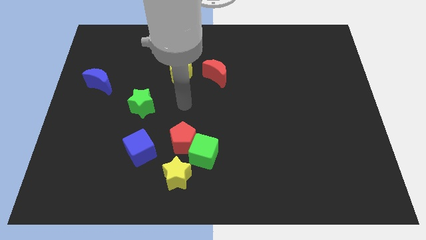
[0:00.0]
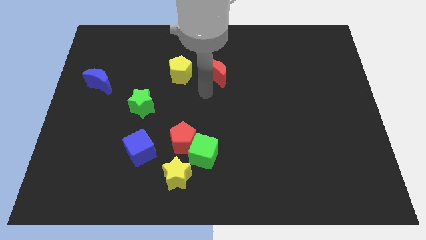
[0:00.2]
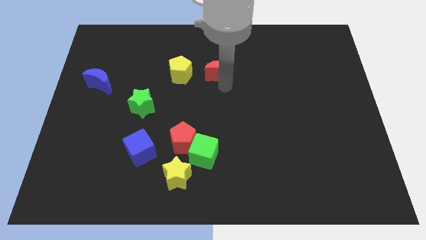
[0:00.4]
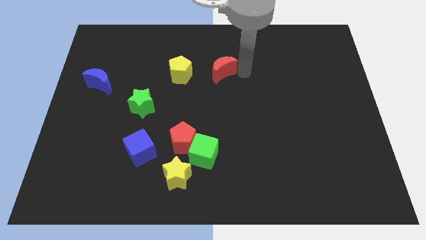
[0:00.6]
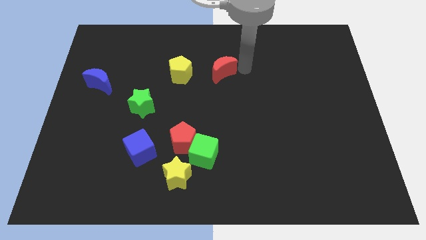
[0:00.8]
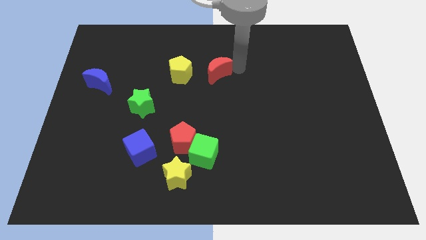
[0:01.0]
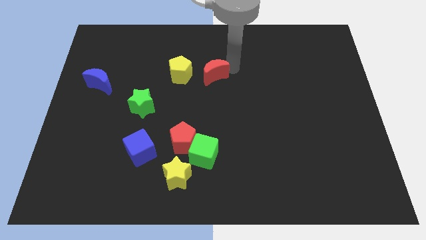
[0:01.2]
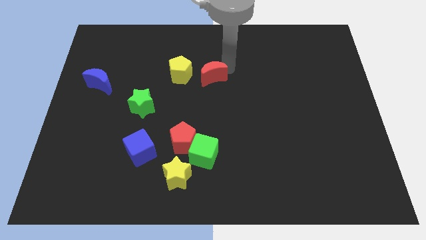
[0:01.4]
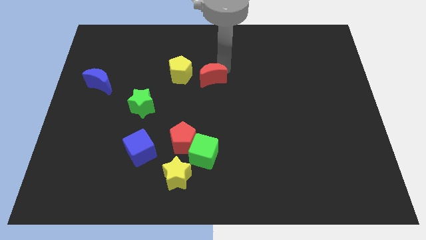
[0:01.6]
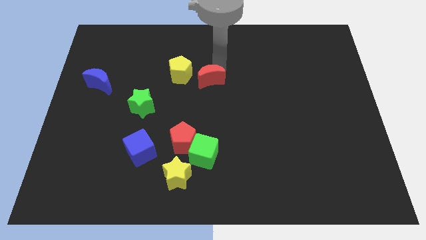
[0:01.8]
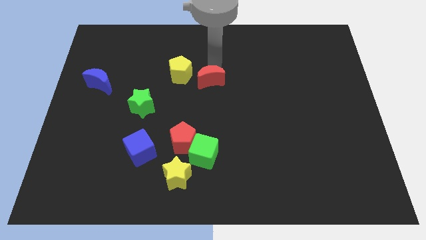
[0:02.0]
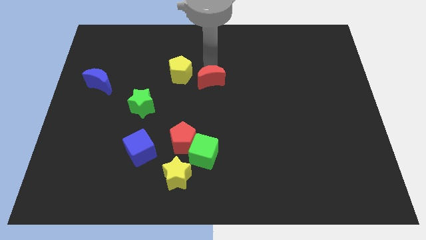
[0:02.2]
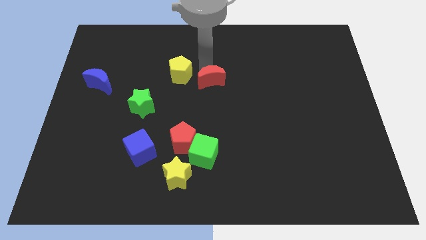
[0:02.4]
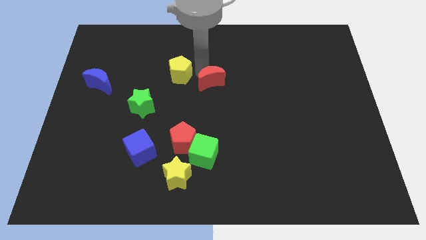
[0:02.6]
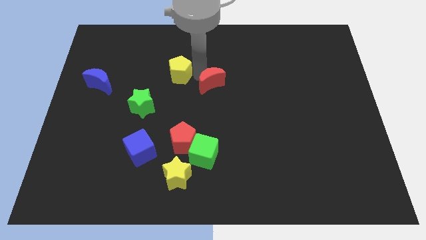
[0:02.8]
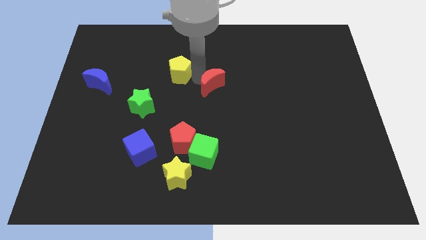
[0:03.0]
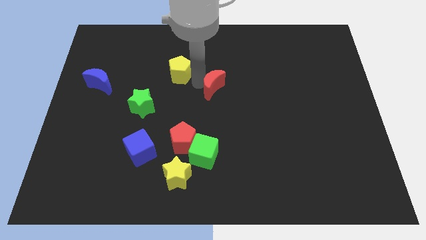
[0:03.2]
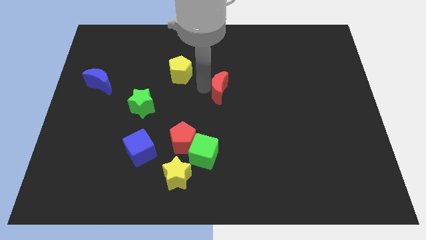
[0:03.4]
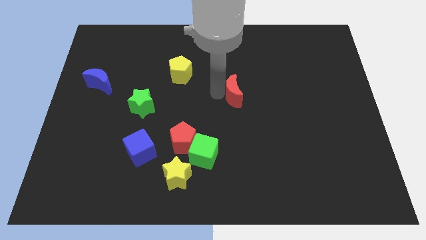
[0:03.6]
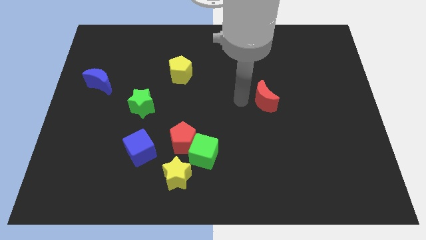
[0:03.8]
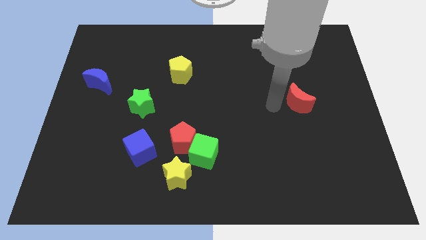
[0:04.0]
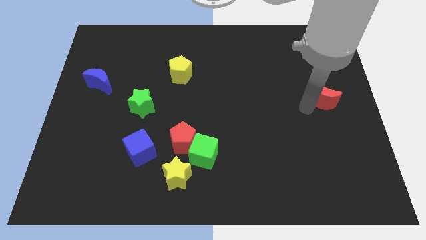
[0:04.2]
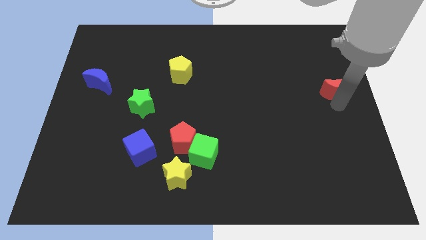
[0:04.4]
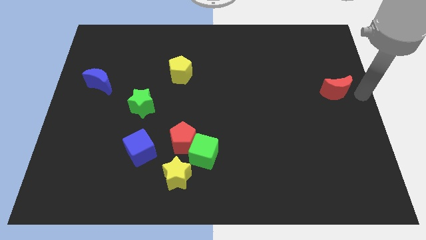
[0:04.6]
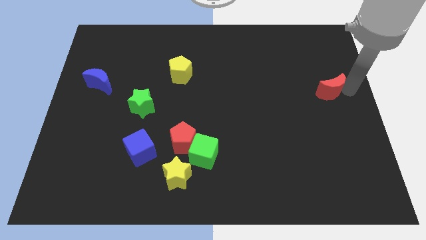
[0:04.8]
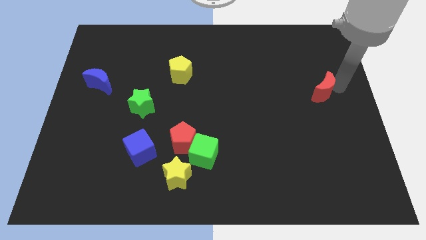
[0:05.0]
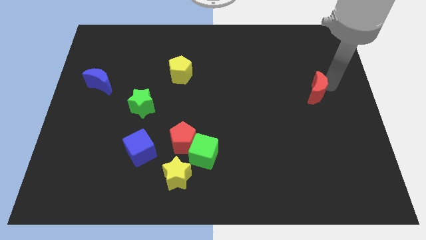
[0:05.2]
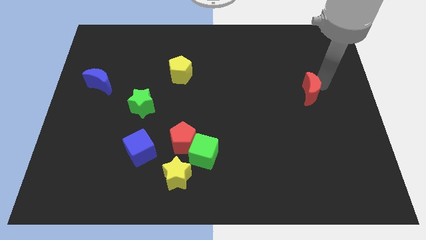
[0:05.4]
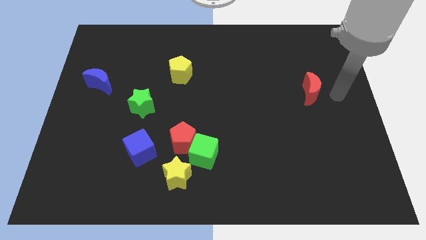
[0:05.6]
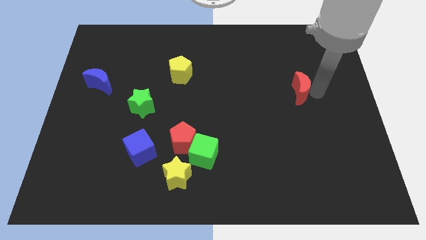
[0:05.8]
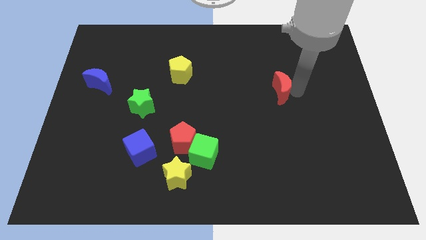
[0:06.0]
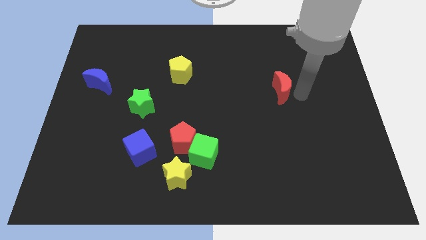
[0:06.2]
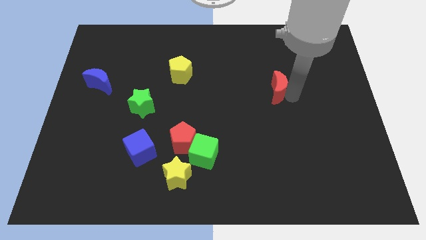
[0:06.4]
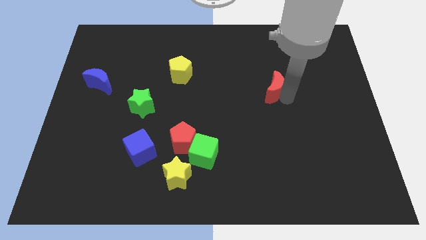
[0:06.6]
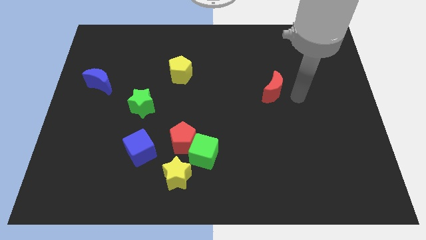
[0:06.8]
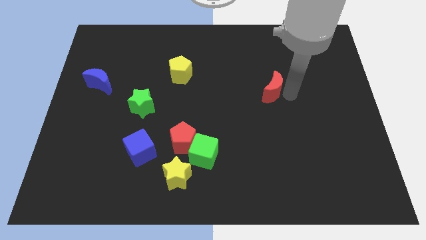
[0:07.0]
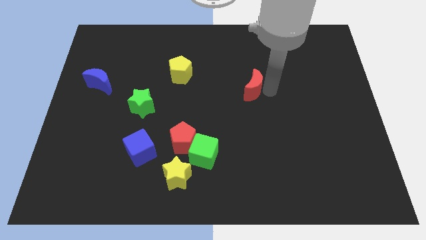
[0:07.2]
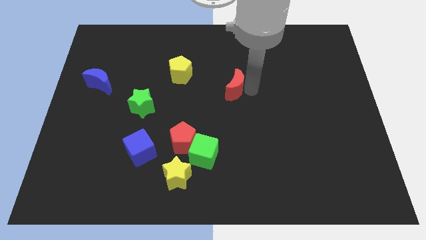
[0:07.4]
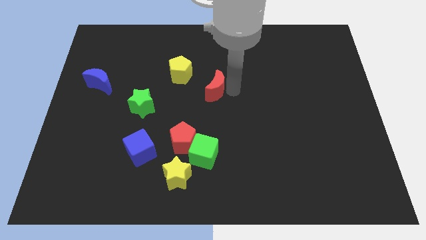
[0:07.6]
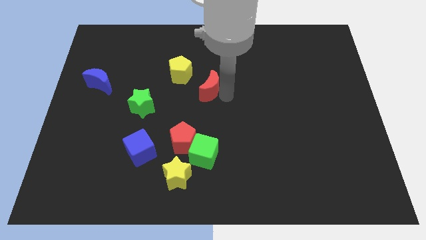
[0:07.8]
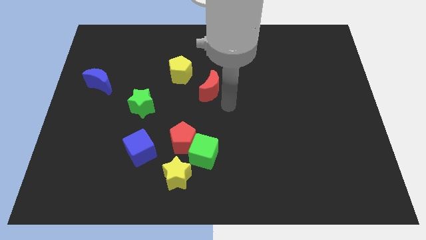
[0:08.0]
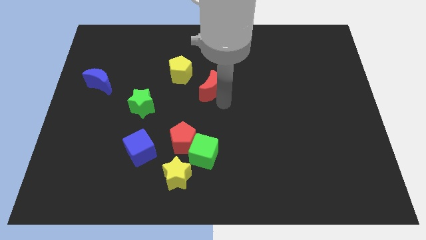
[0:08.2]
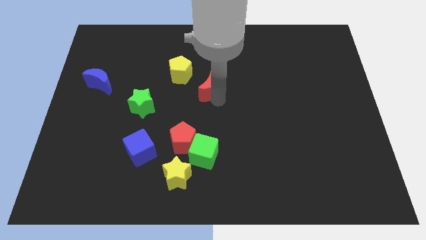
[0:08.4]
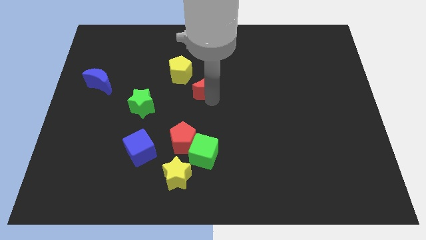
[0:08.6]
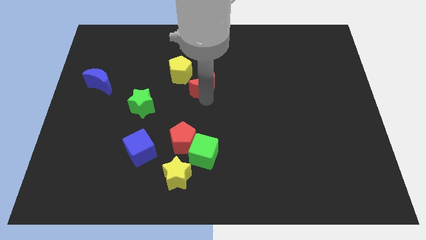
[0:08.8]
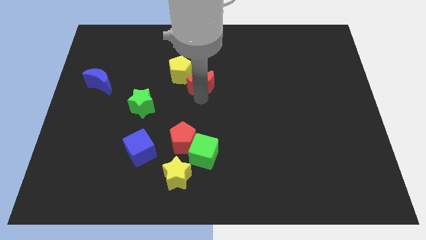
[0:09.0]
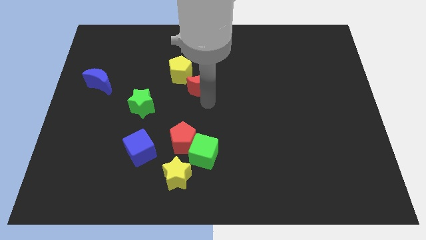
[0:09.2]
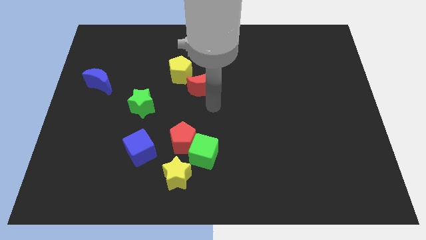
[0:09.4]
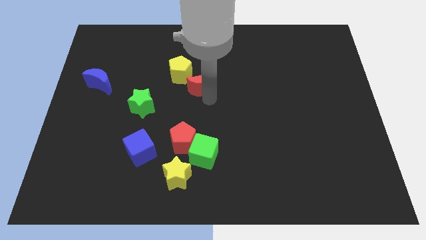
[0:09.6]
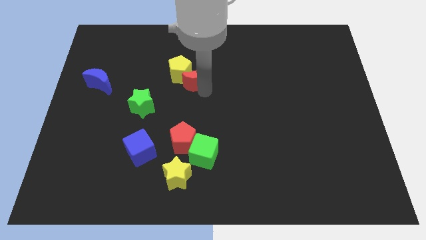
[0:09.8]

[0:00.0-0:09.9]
slide the red moon towards the yellow pentagon

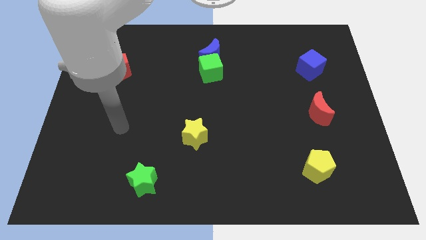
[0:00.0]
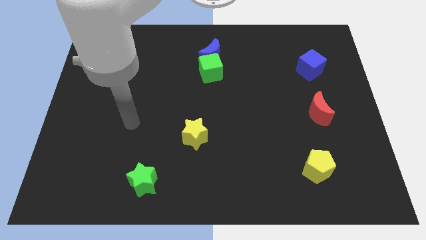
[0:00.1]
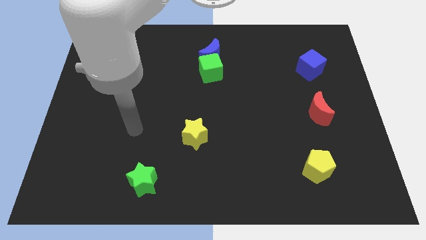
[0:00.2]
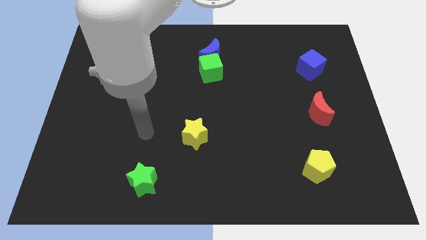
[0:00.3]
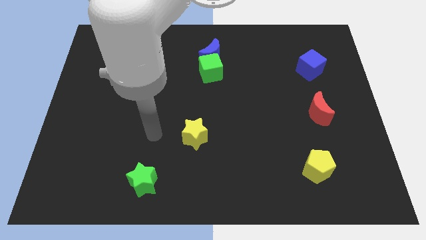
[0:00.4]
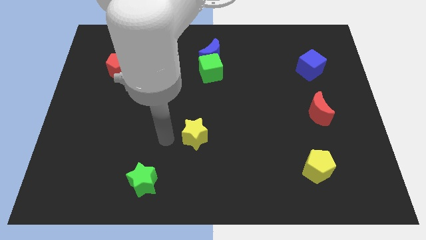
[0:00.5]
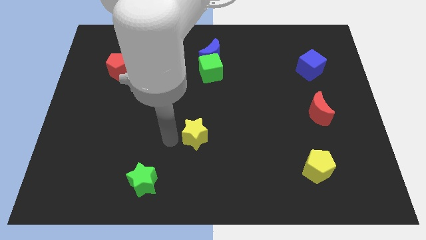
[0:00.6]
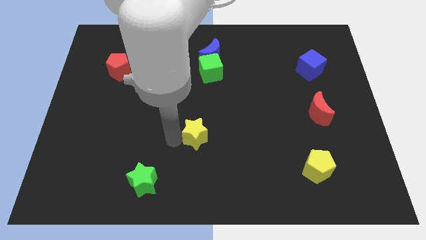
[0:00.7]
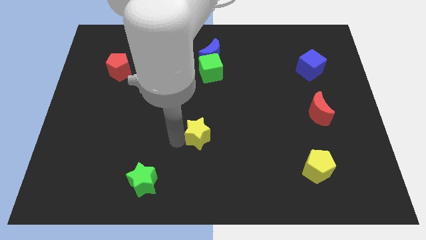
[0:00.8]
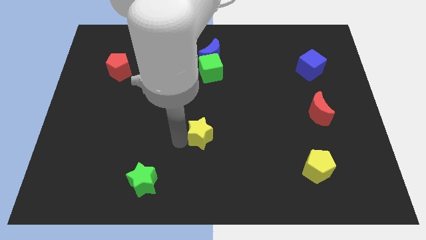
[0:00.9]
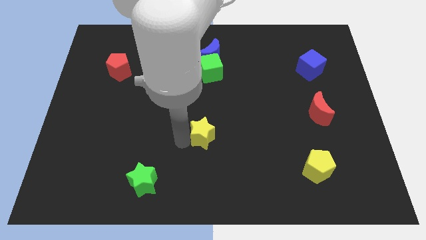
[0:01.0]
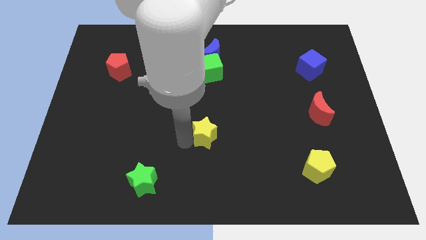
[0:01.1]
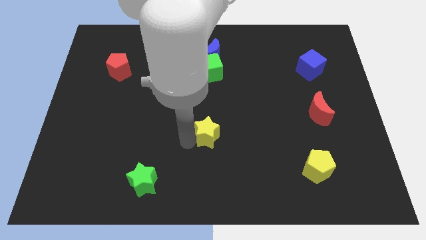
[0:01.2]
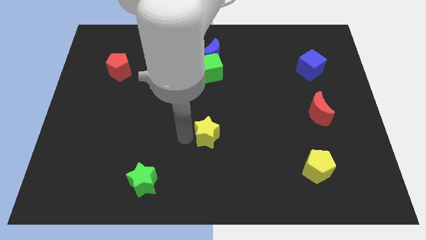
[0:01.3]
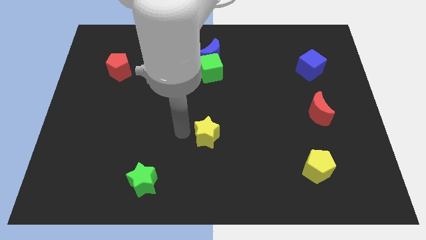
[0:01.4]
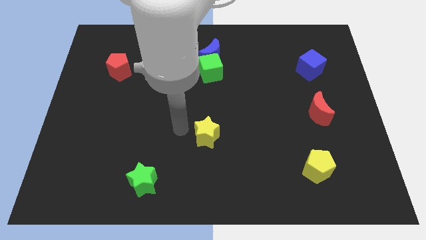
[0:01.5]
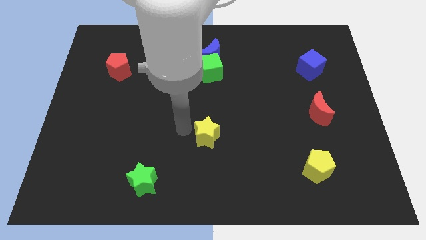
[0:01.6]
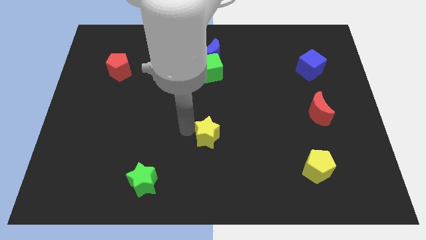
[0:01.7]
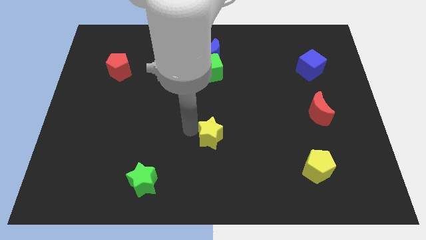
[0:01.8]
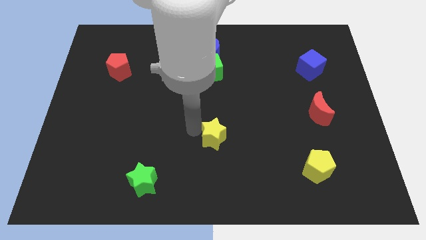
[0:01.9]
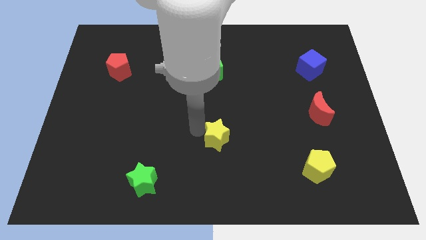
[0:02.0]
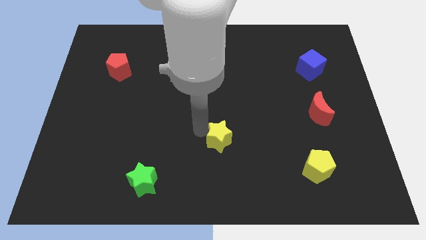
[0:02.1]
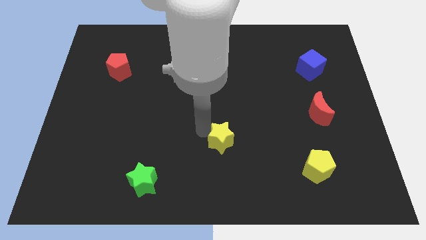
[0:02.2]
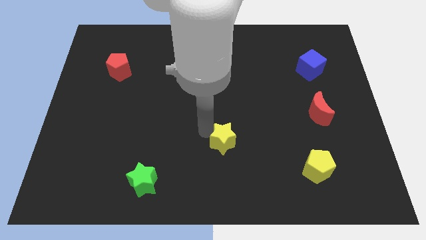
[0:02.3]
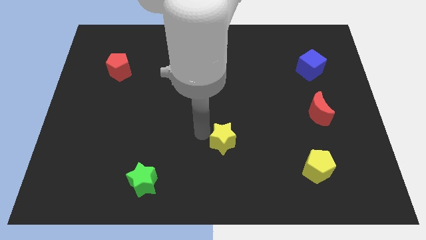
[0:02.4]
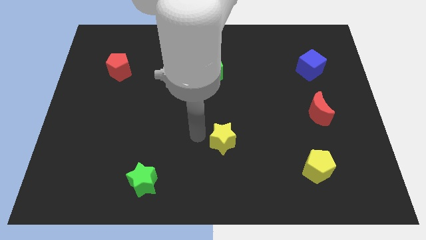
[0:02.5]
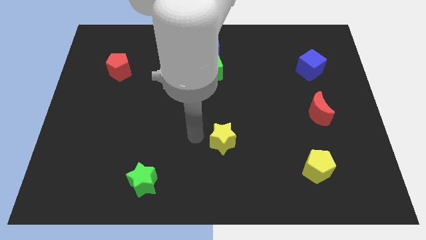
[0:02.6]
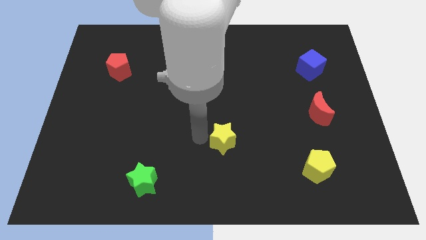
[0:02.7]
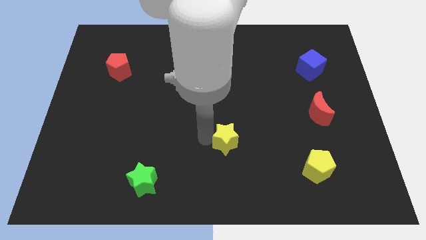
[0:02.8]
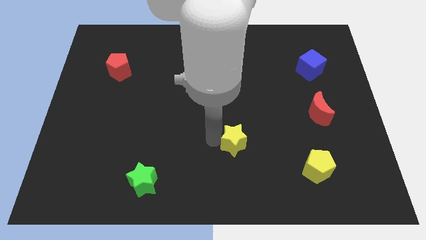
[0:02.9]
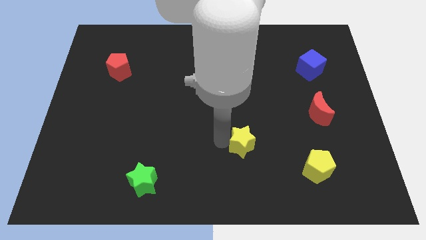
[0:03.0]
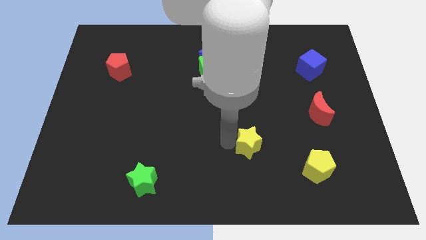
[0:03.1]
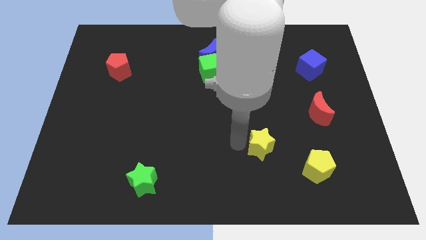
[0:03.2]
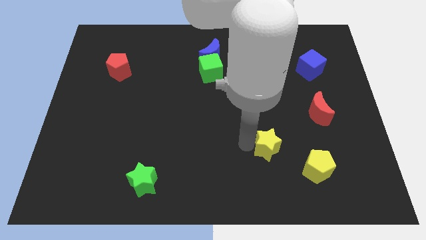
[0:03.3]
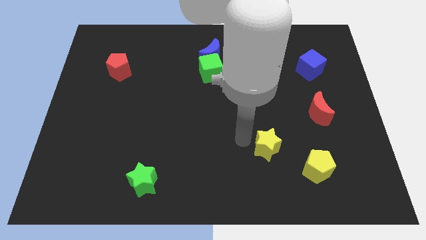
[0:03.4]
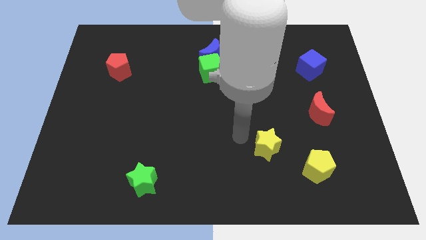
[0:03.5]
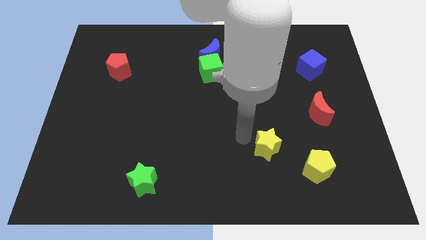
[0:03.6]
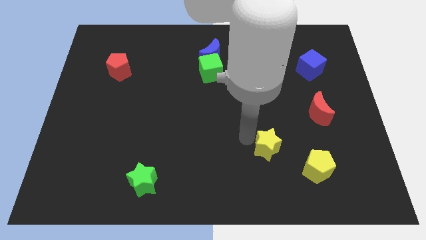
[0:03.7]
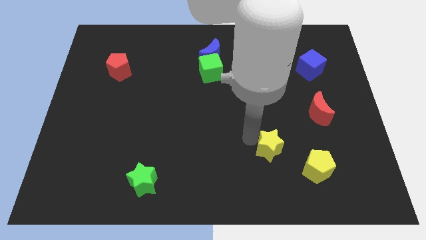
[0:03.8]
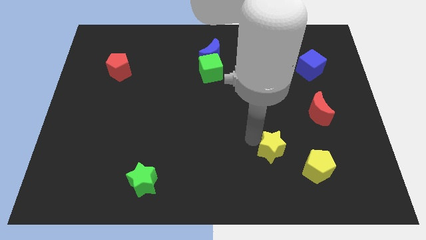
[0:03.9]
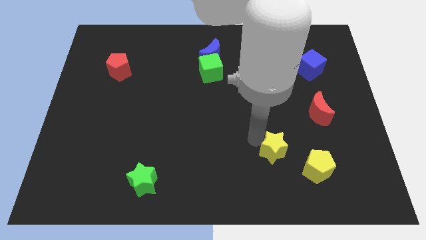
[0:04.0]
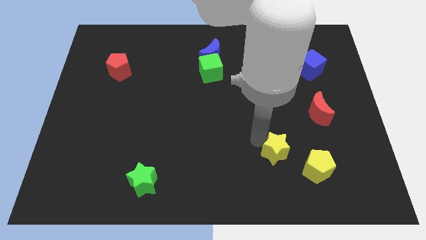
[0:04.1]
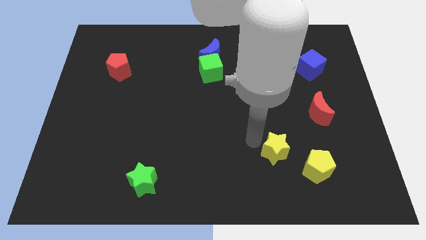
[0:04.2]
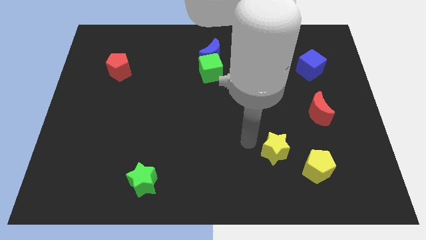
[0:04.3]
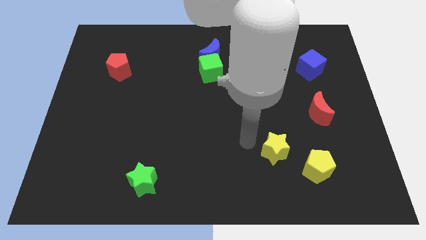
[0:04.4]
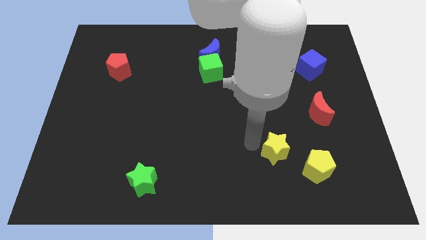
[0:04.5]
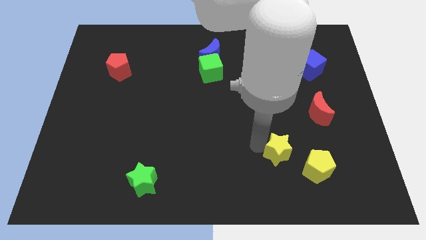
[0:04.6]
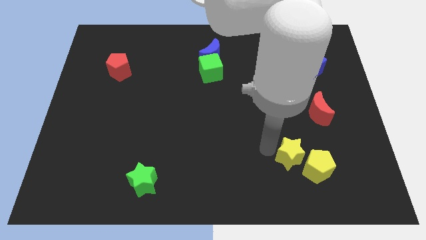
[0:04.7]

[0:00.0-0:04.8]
slide the yellow star close to the yellow pentagon
